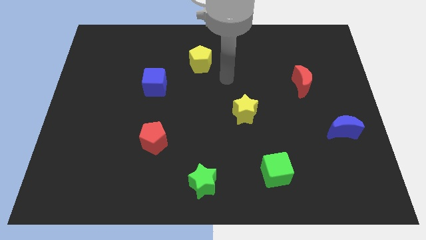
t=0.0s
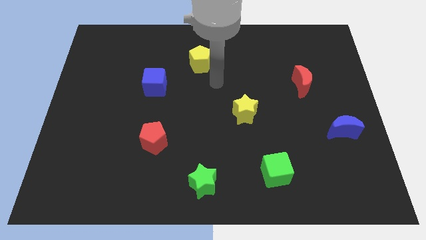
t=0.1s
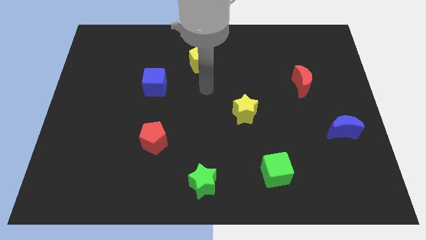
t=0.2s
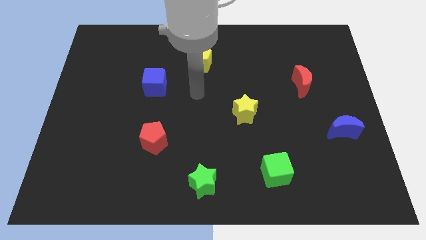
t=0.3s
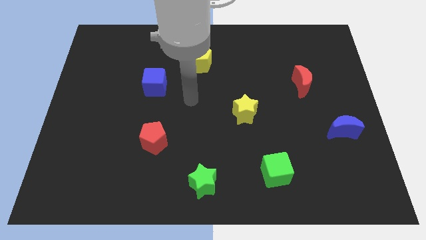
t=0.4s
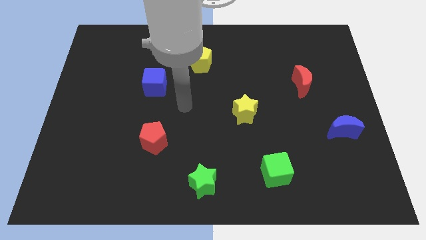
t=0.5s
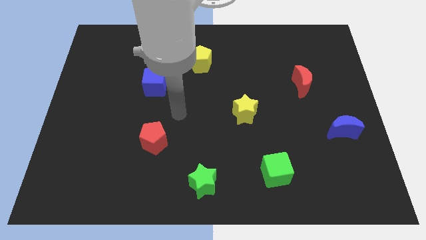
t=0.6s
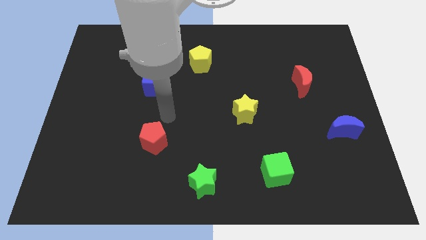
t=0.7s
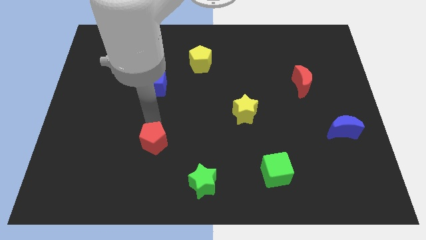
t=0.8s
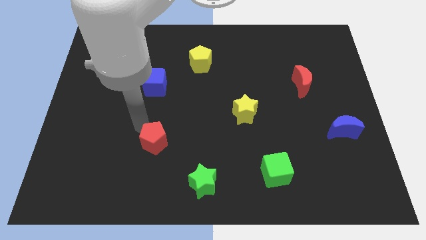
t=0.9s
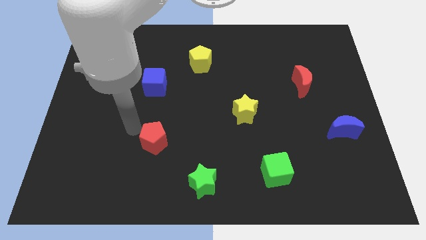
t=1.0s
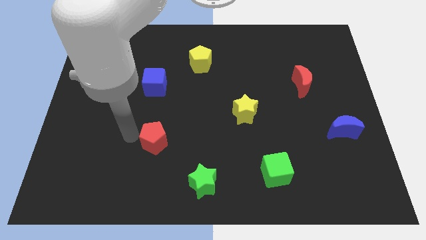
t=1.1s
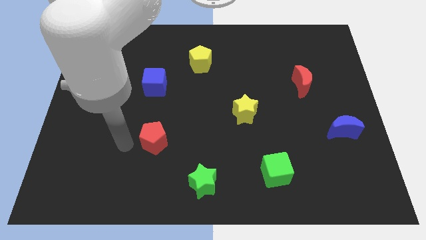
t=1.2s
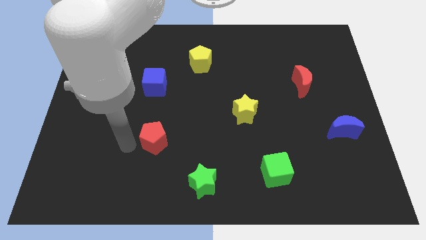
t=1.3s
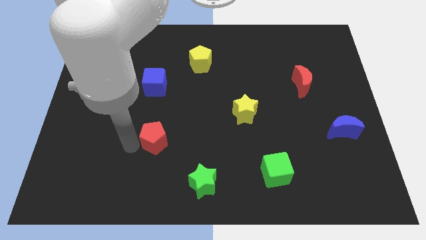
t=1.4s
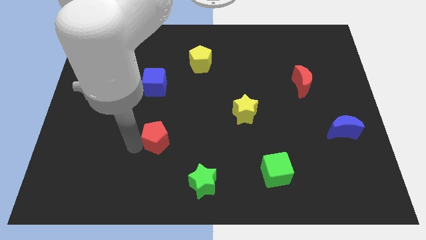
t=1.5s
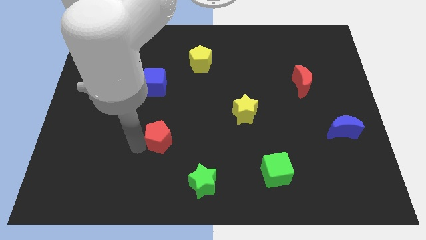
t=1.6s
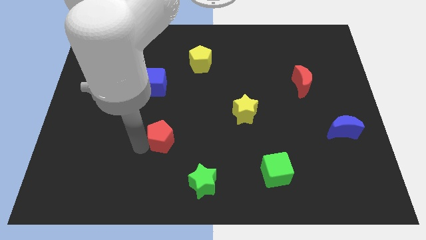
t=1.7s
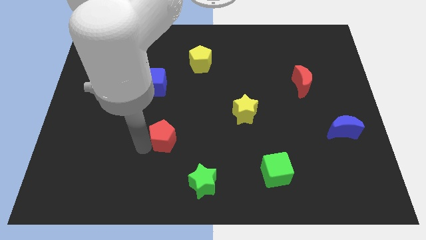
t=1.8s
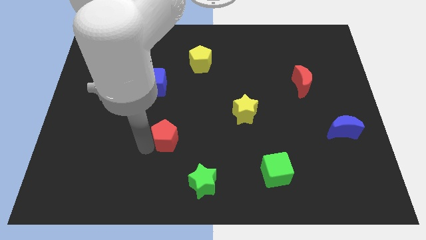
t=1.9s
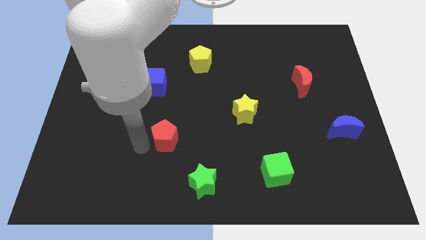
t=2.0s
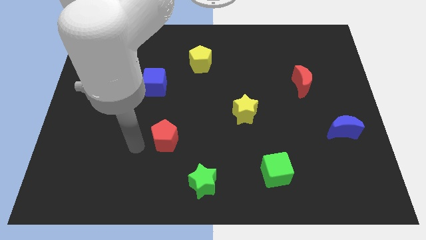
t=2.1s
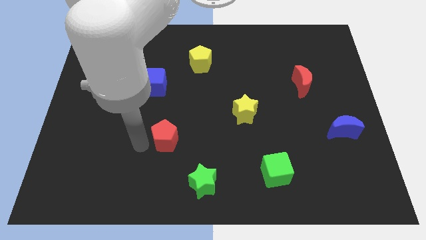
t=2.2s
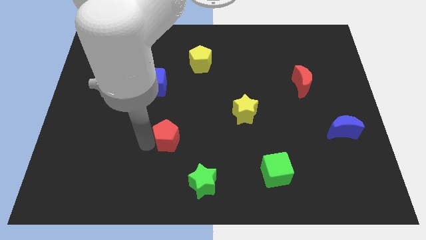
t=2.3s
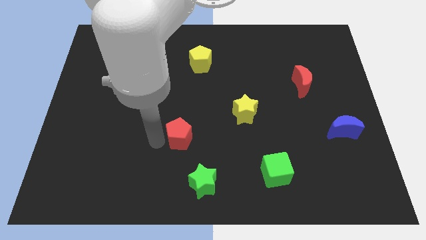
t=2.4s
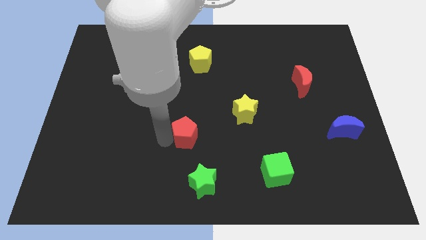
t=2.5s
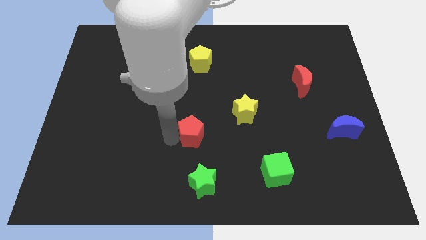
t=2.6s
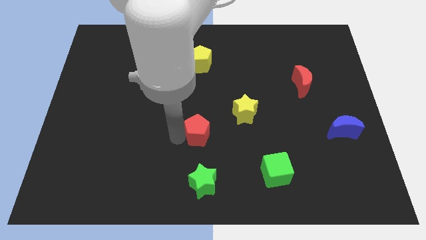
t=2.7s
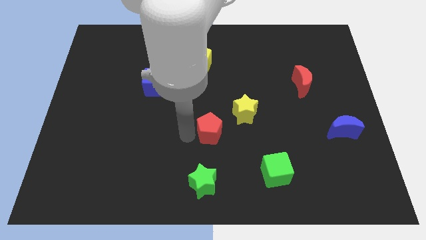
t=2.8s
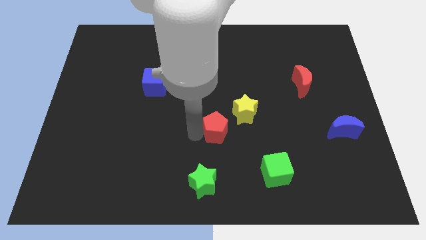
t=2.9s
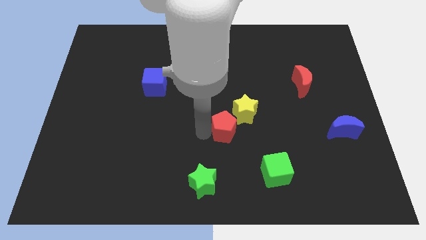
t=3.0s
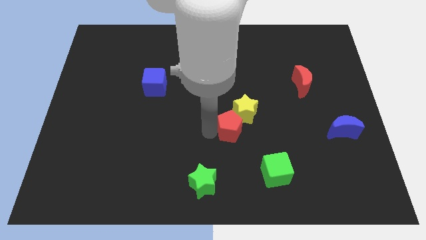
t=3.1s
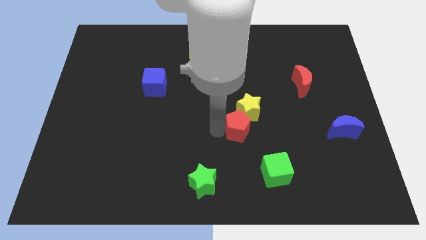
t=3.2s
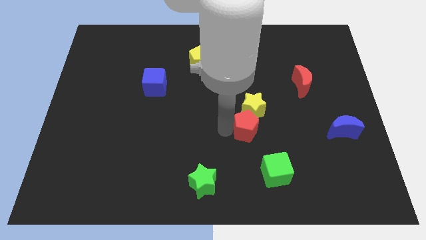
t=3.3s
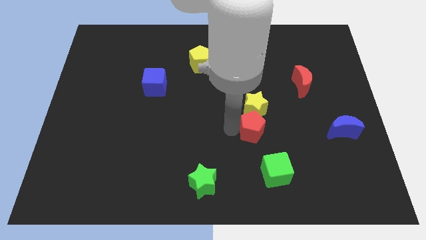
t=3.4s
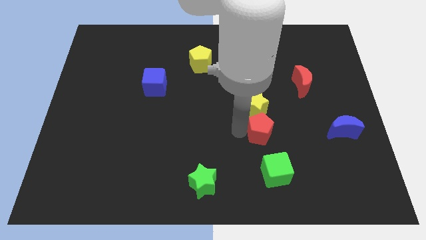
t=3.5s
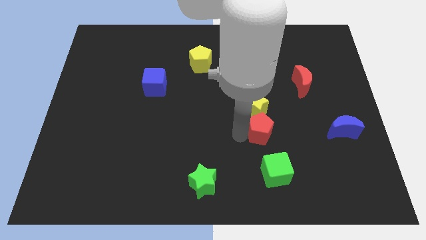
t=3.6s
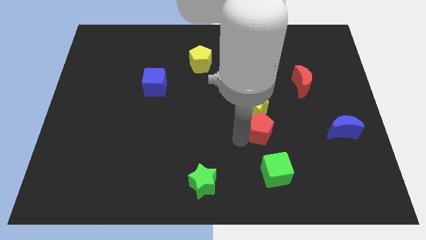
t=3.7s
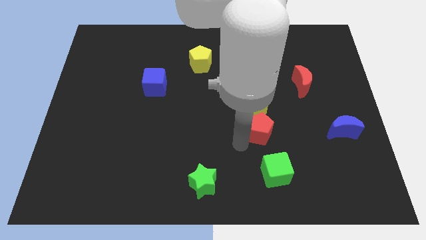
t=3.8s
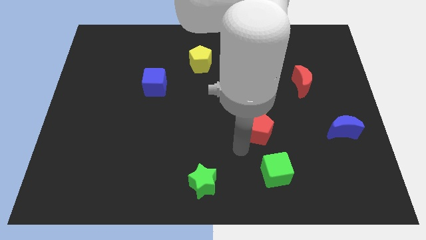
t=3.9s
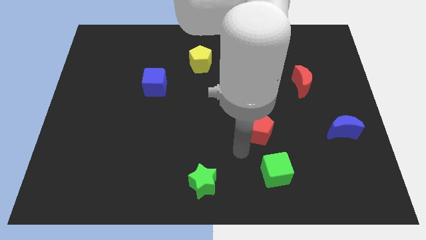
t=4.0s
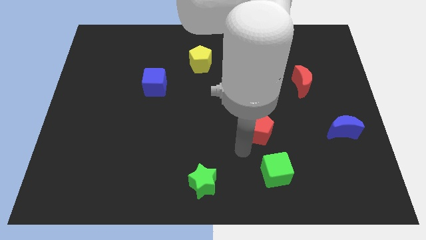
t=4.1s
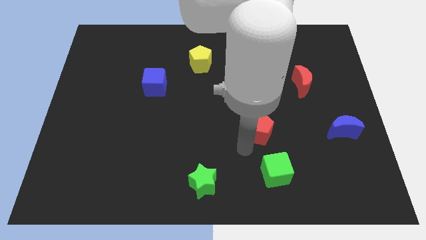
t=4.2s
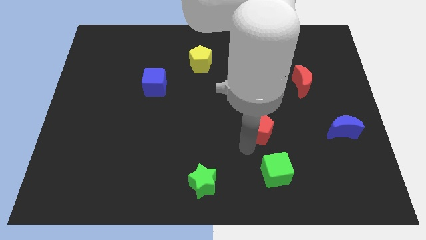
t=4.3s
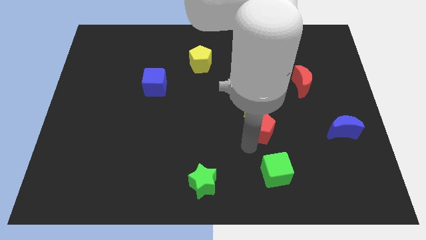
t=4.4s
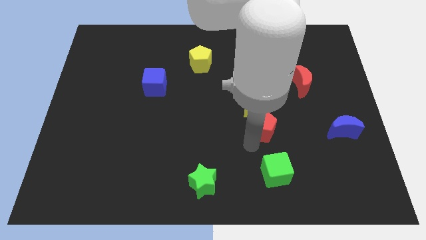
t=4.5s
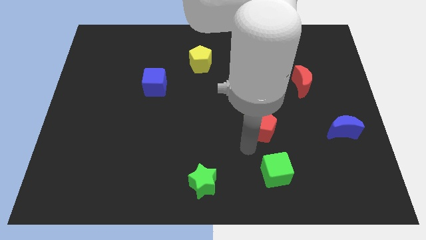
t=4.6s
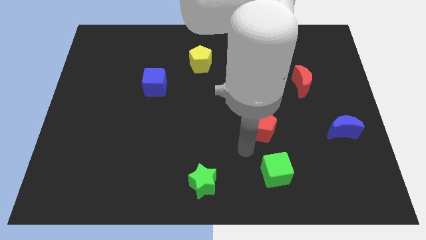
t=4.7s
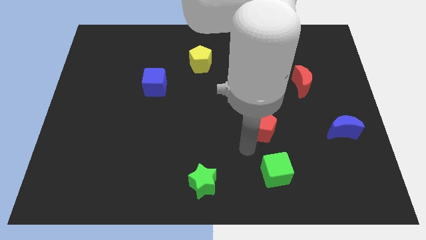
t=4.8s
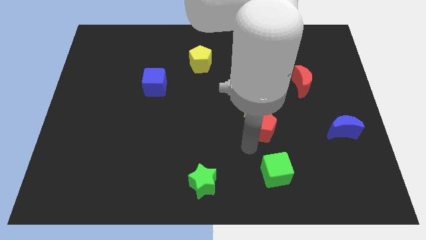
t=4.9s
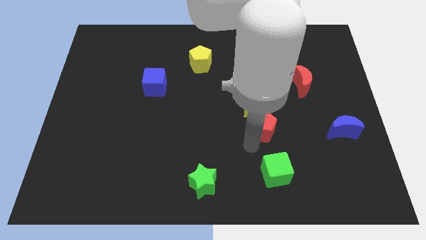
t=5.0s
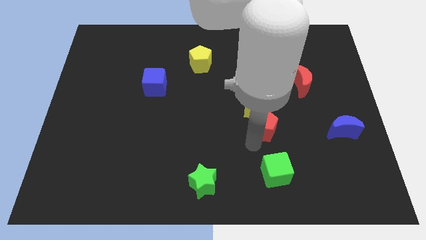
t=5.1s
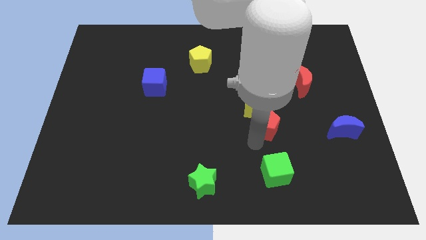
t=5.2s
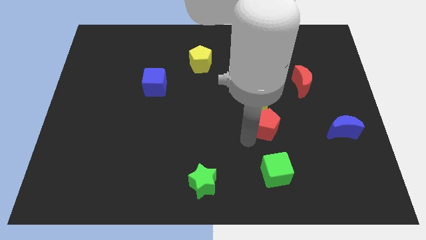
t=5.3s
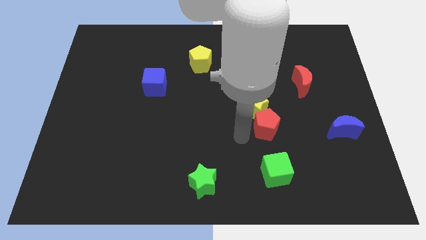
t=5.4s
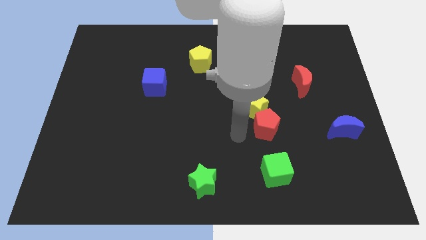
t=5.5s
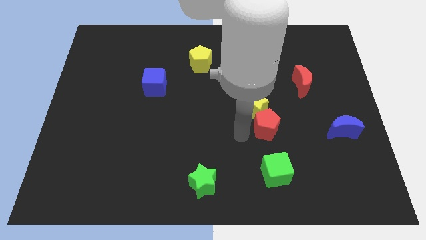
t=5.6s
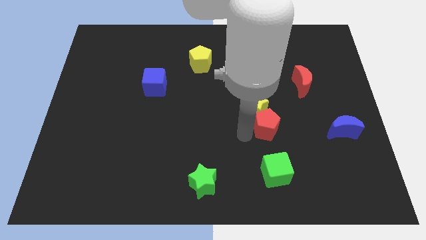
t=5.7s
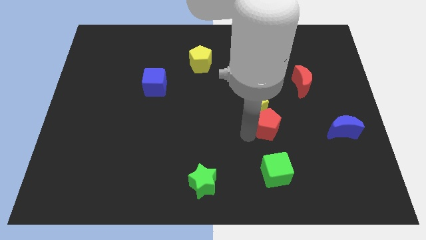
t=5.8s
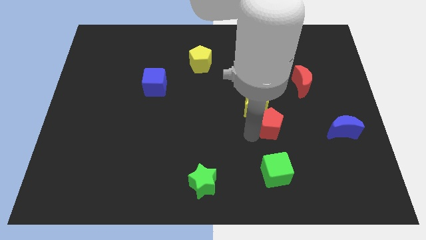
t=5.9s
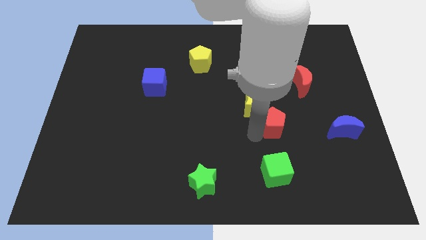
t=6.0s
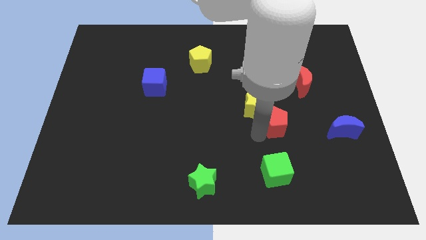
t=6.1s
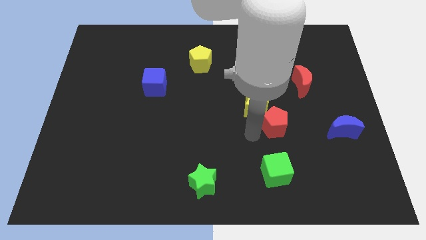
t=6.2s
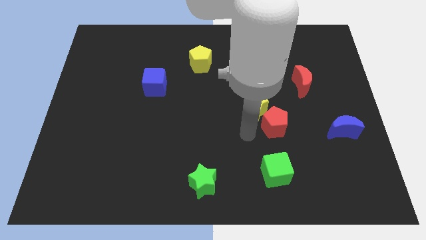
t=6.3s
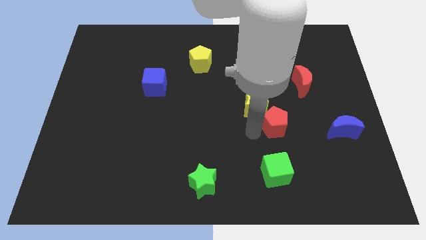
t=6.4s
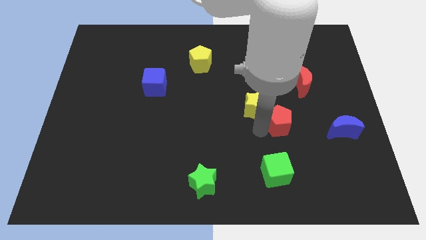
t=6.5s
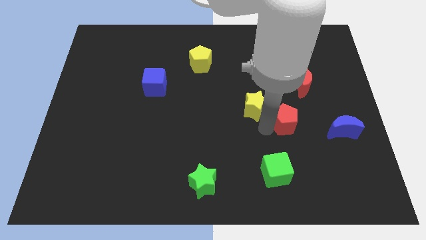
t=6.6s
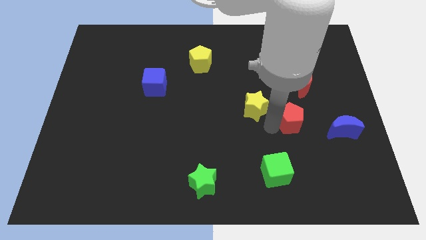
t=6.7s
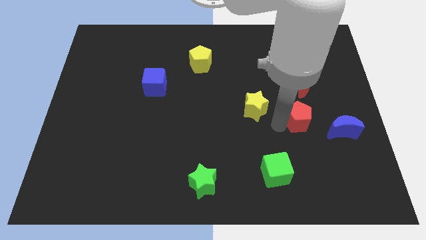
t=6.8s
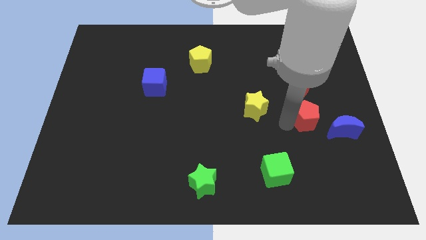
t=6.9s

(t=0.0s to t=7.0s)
push the red pentagon to the top left of the blue moon

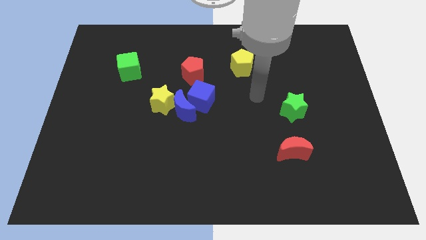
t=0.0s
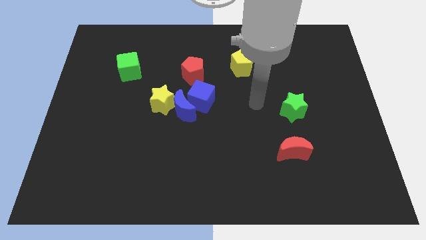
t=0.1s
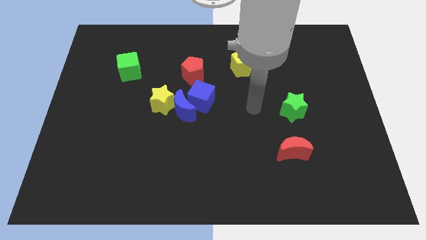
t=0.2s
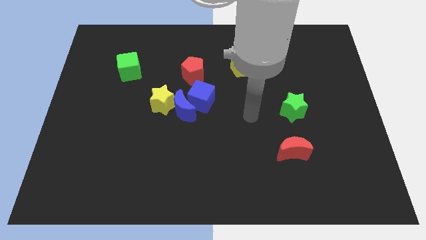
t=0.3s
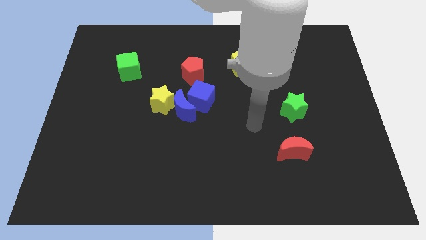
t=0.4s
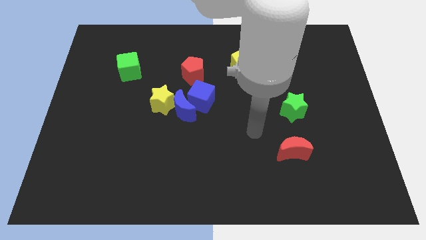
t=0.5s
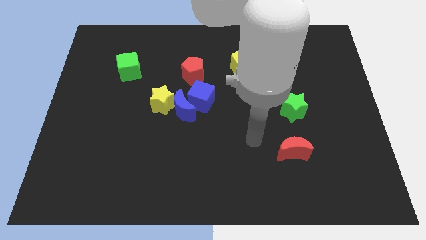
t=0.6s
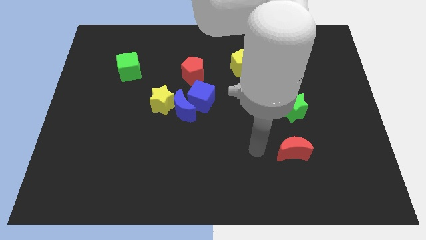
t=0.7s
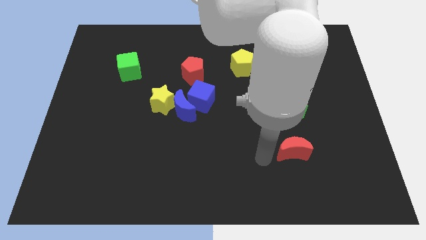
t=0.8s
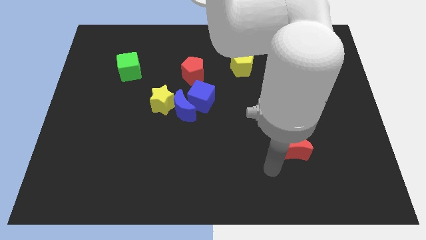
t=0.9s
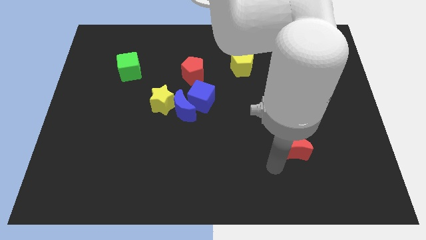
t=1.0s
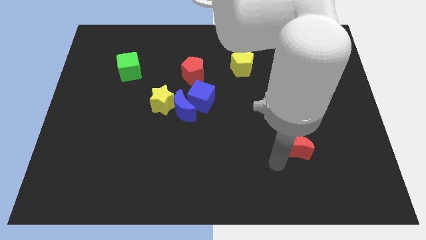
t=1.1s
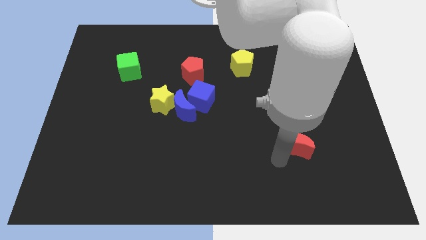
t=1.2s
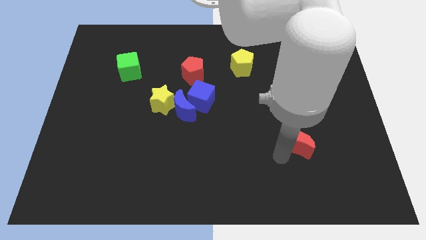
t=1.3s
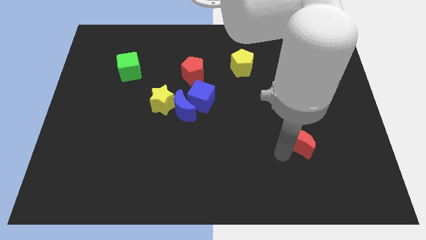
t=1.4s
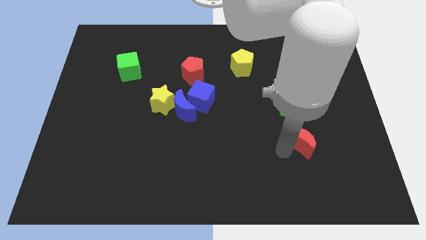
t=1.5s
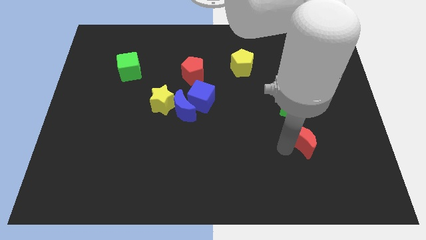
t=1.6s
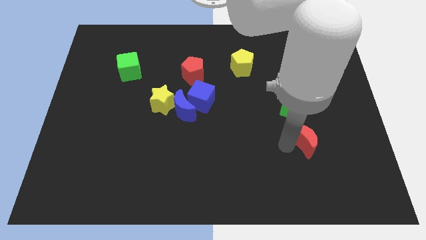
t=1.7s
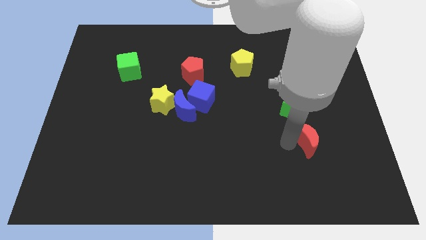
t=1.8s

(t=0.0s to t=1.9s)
move the red moon to the bottom right of the green star
